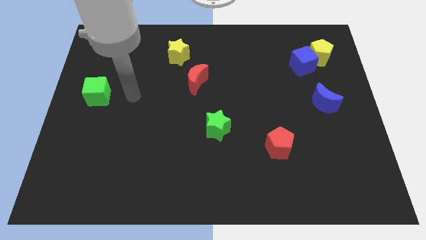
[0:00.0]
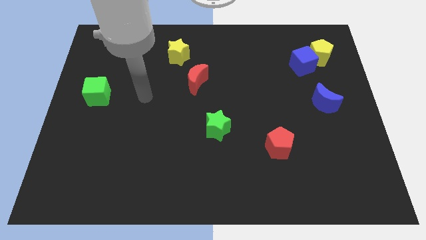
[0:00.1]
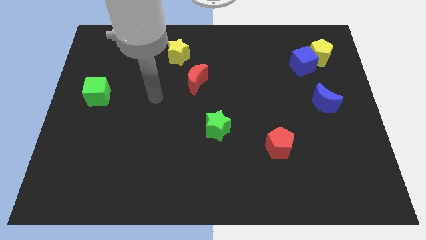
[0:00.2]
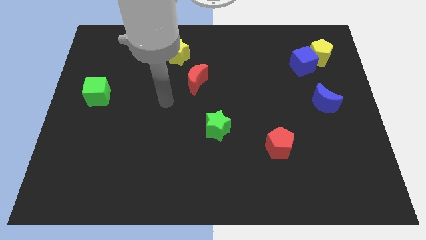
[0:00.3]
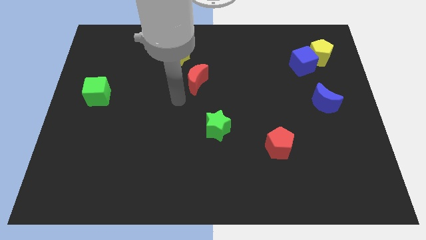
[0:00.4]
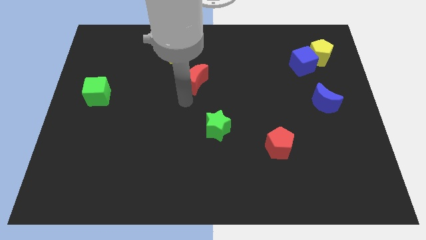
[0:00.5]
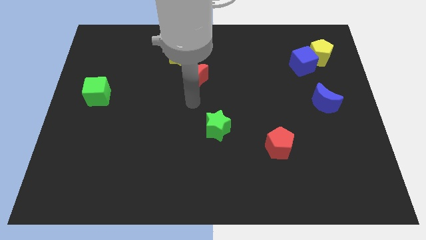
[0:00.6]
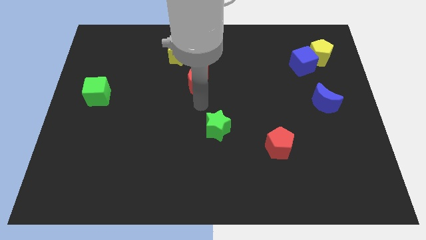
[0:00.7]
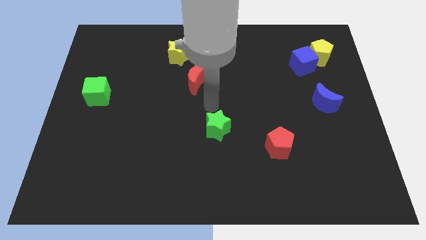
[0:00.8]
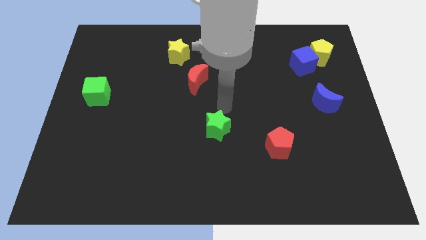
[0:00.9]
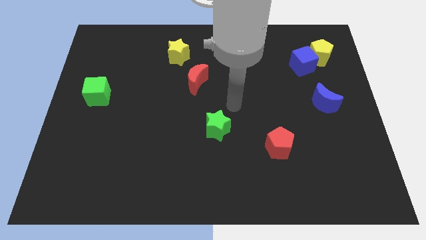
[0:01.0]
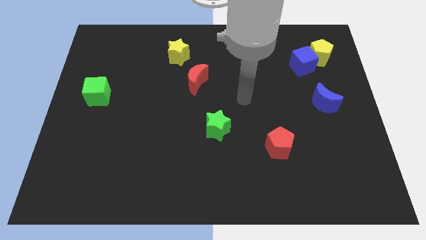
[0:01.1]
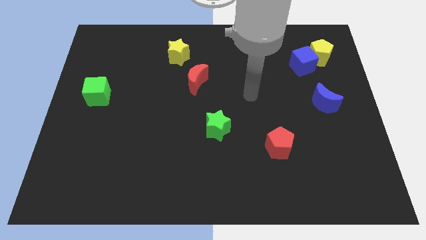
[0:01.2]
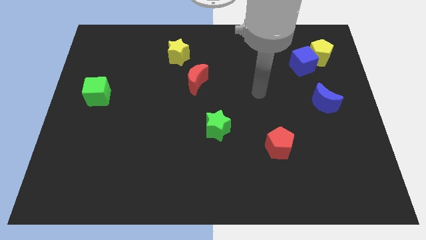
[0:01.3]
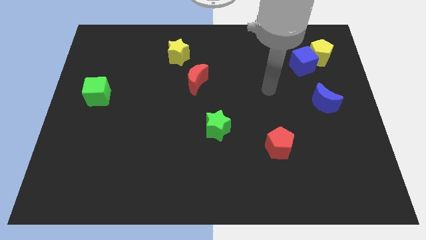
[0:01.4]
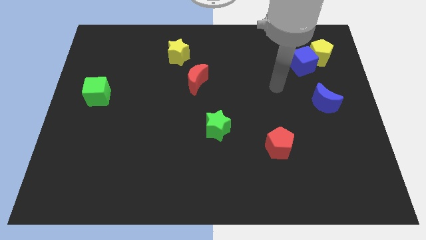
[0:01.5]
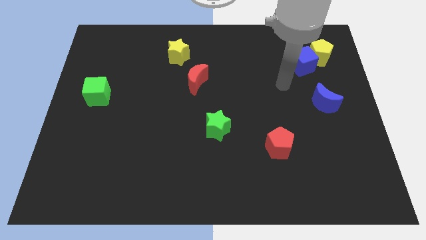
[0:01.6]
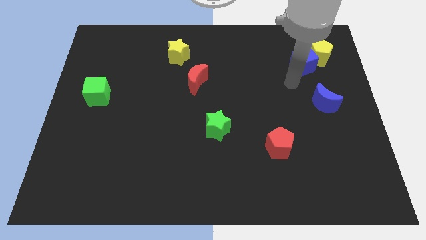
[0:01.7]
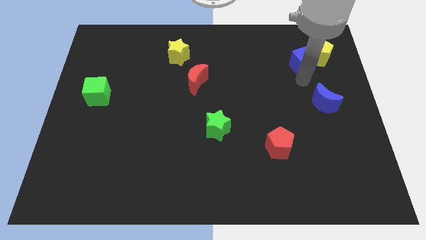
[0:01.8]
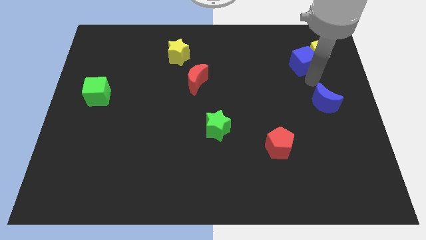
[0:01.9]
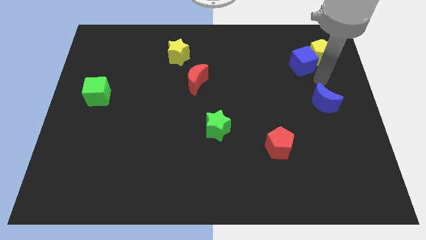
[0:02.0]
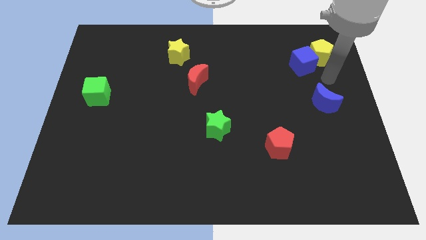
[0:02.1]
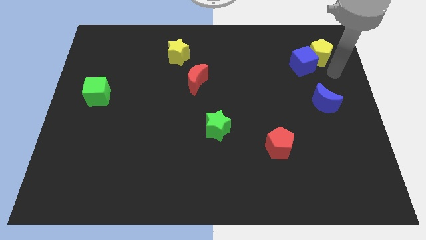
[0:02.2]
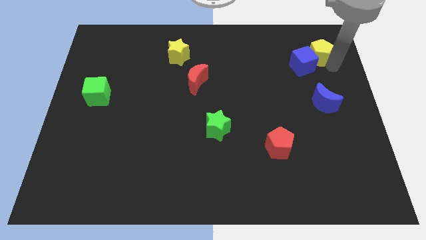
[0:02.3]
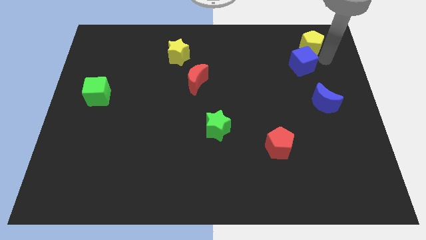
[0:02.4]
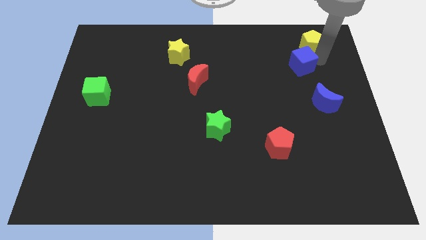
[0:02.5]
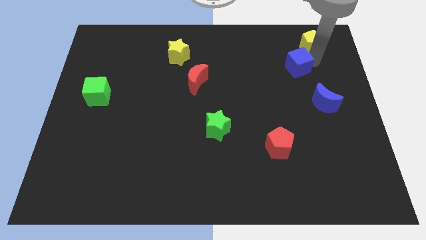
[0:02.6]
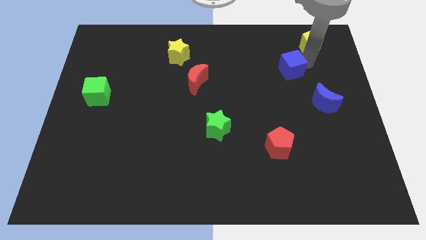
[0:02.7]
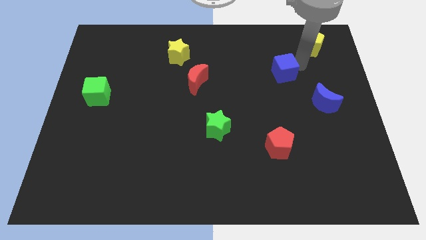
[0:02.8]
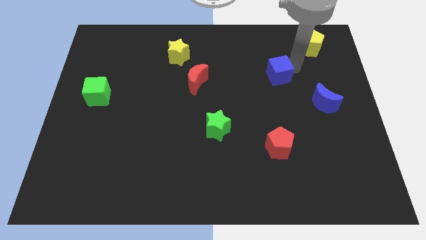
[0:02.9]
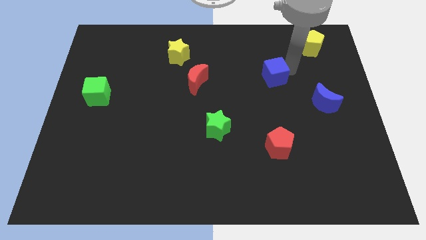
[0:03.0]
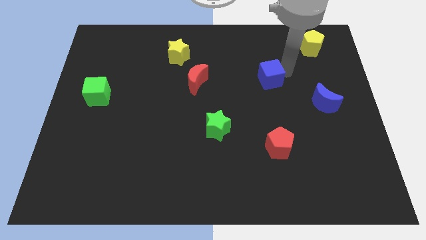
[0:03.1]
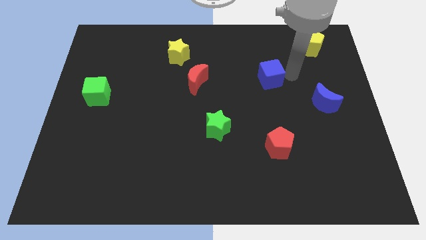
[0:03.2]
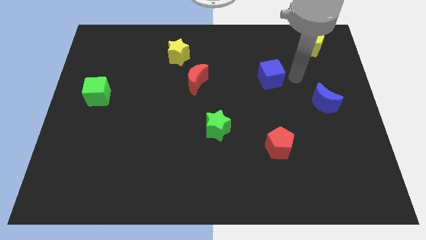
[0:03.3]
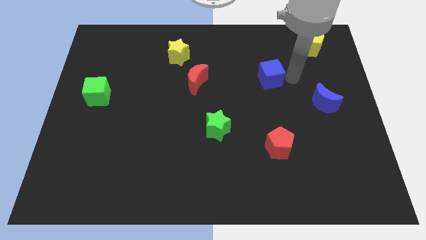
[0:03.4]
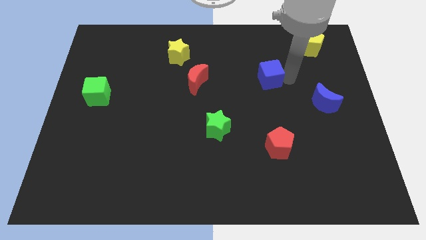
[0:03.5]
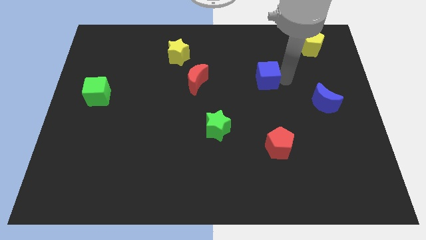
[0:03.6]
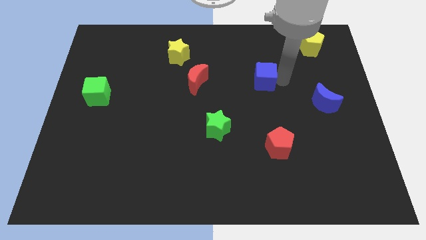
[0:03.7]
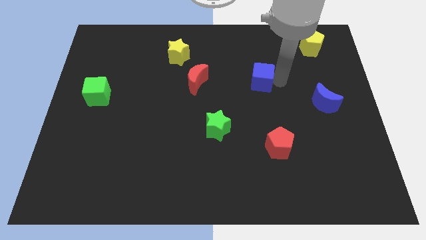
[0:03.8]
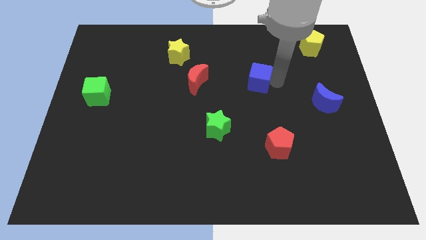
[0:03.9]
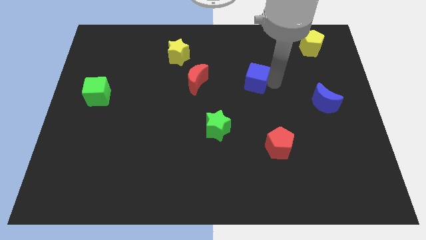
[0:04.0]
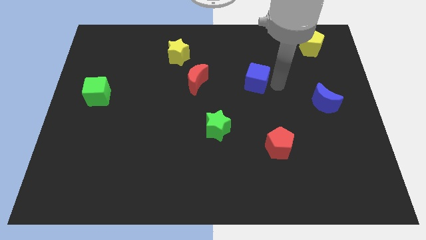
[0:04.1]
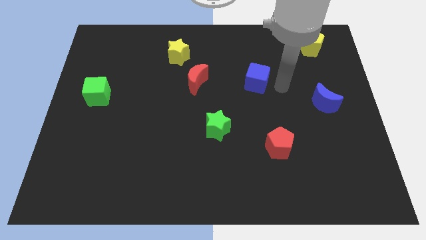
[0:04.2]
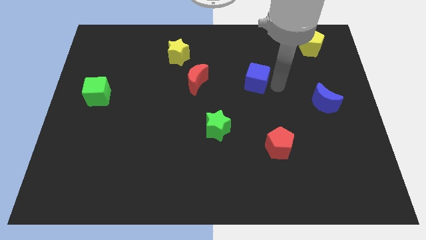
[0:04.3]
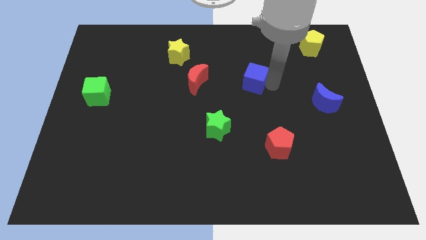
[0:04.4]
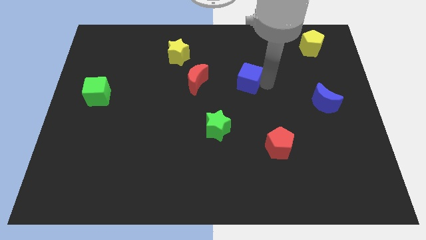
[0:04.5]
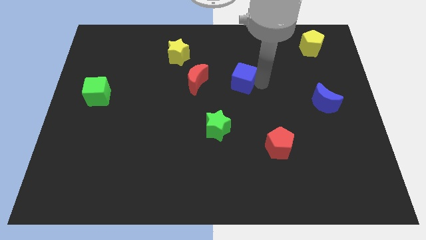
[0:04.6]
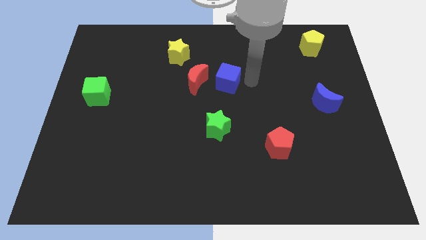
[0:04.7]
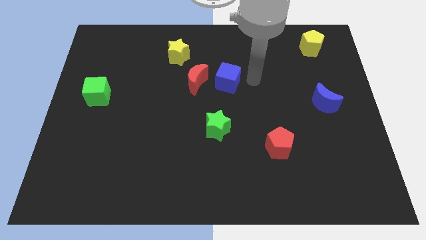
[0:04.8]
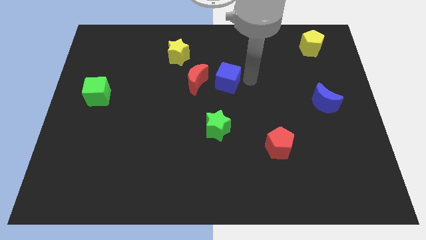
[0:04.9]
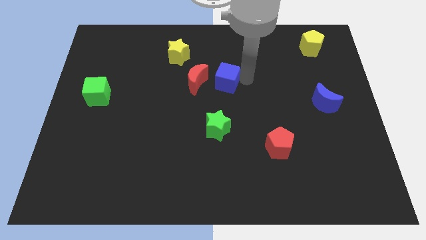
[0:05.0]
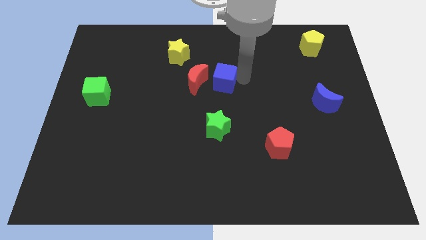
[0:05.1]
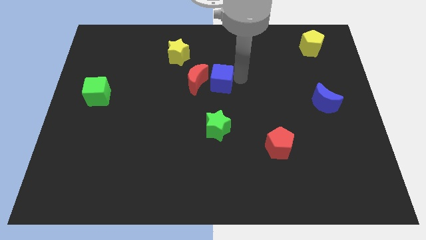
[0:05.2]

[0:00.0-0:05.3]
push the blue cube next to the red moon

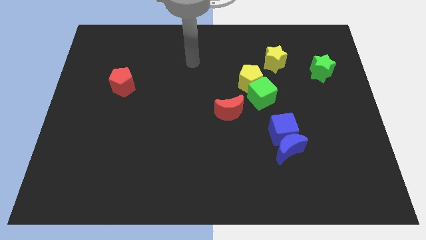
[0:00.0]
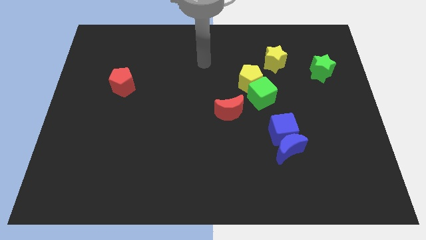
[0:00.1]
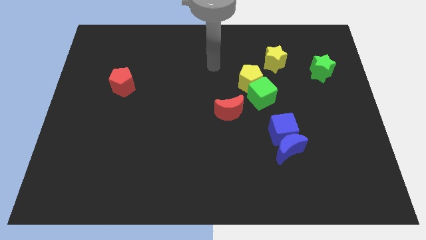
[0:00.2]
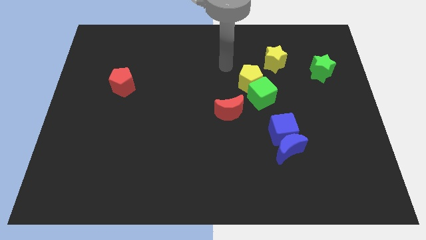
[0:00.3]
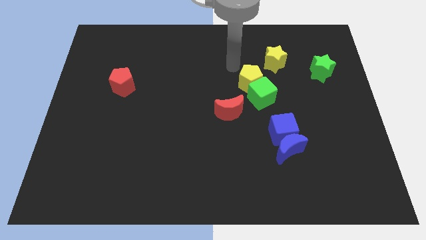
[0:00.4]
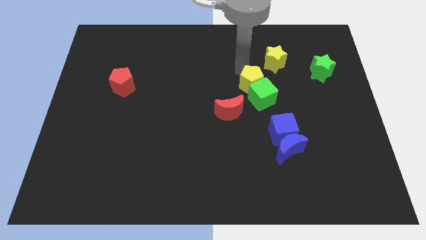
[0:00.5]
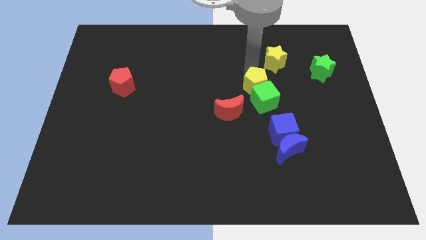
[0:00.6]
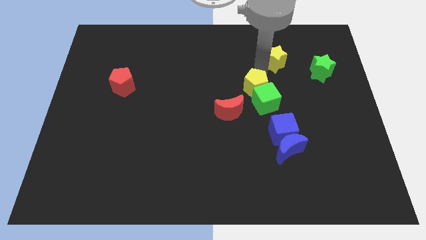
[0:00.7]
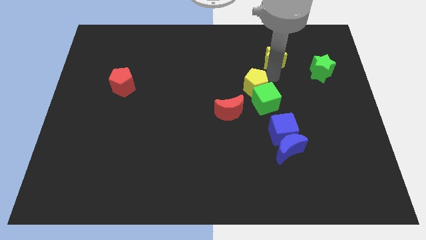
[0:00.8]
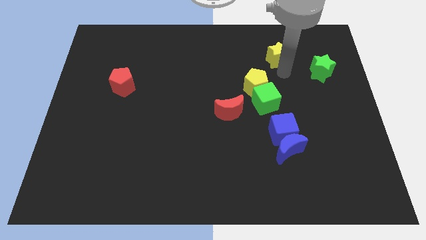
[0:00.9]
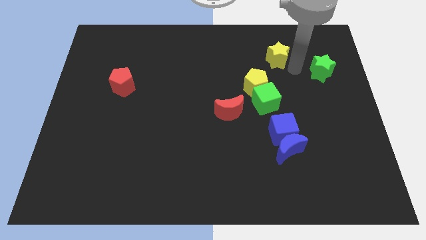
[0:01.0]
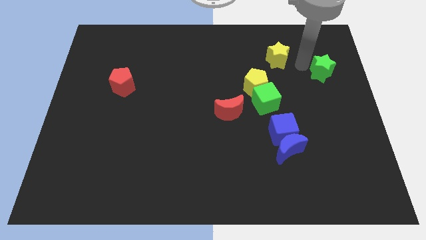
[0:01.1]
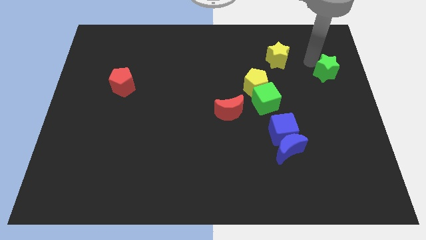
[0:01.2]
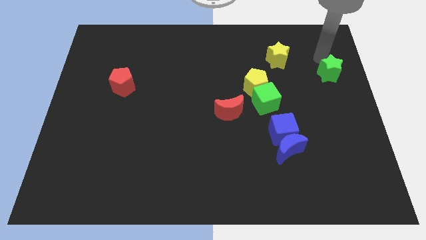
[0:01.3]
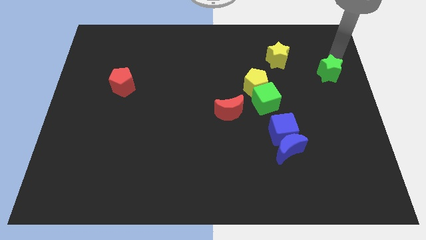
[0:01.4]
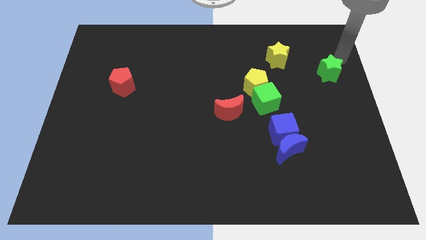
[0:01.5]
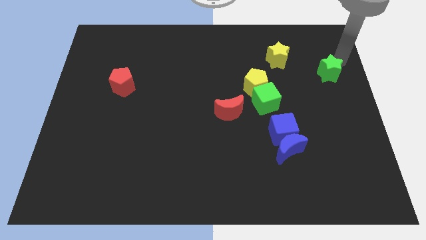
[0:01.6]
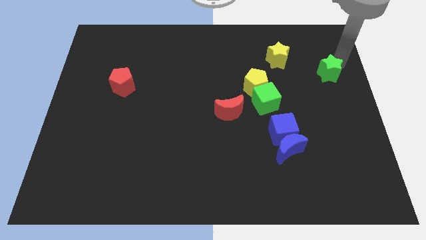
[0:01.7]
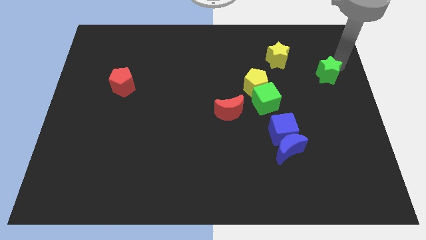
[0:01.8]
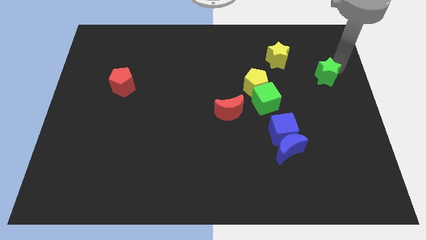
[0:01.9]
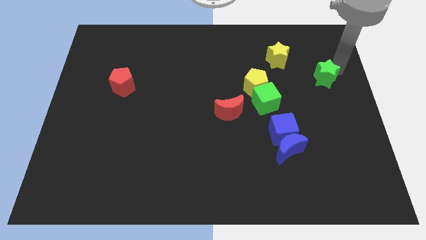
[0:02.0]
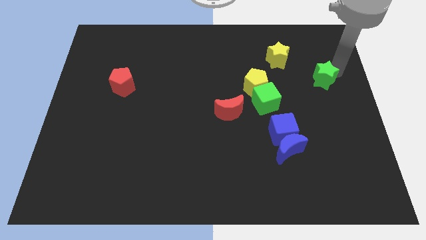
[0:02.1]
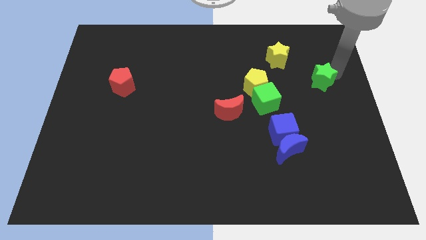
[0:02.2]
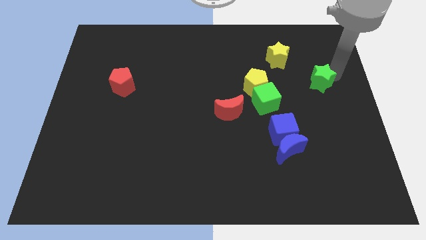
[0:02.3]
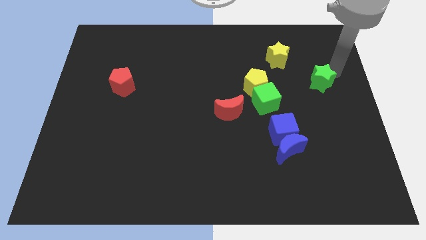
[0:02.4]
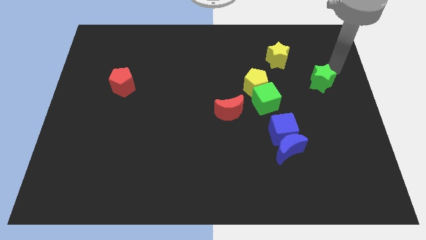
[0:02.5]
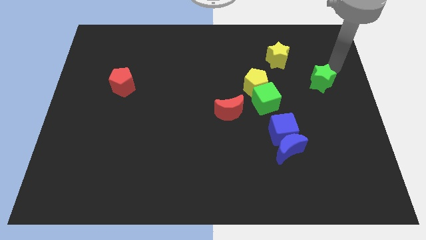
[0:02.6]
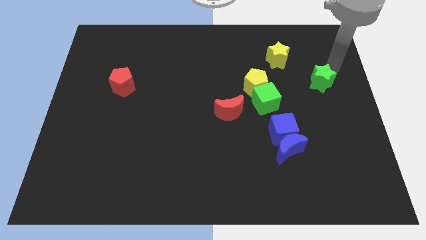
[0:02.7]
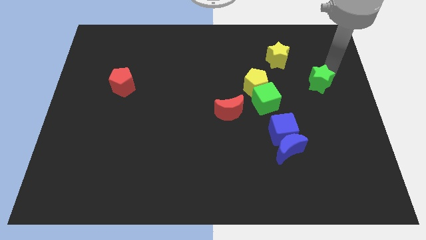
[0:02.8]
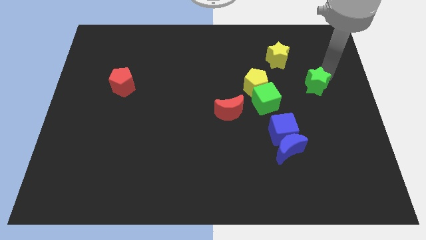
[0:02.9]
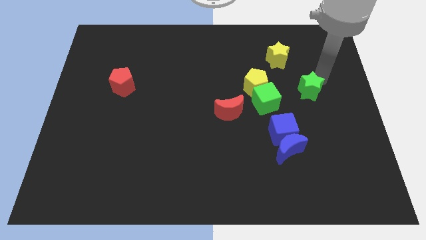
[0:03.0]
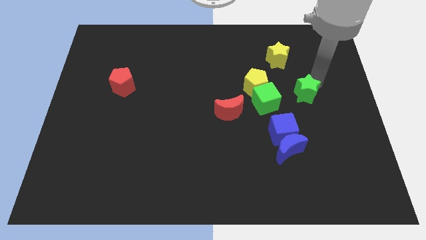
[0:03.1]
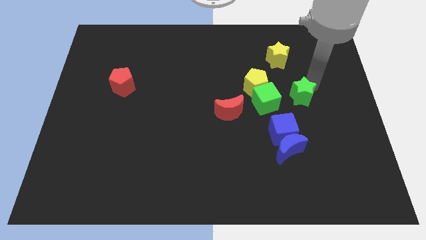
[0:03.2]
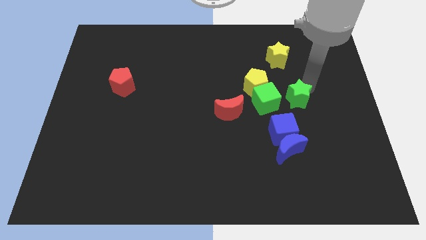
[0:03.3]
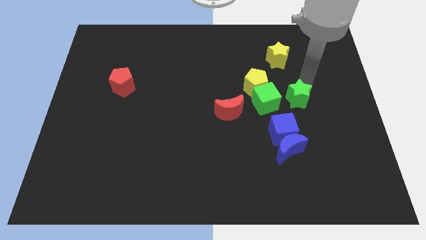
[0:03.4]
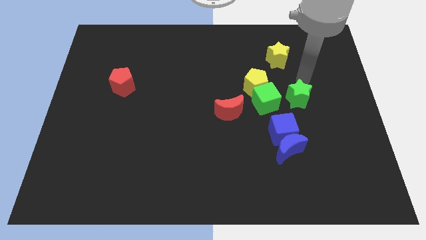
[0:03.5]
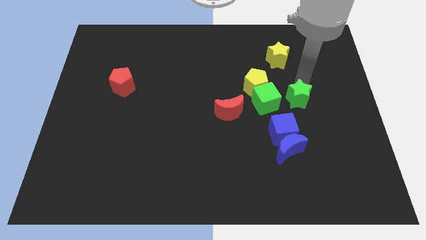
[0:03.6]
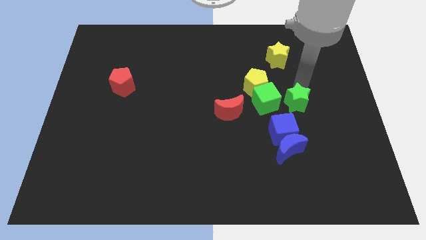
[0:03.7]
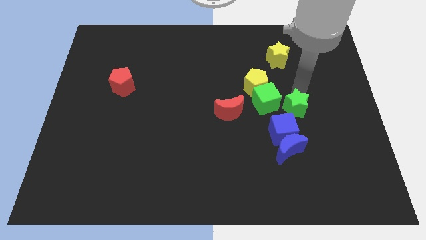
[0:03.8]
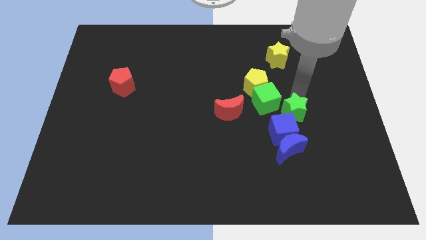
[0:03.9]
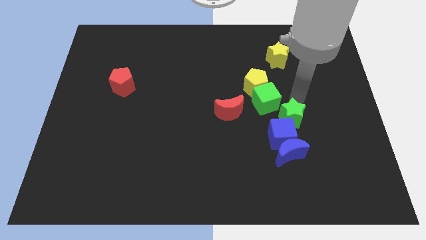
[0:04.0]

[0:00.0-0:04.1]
push the green star close to the blue cube
